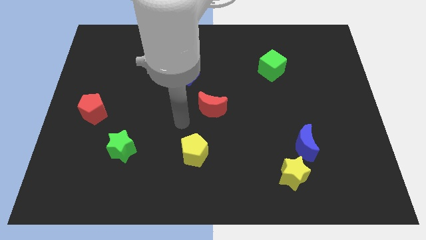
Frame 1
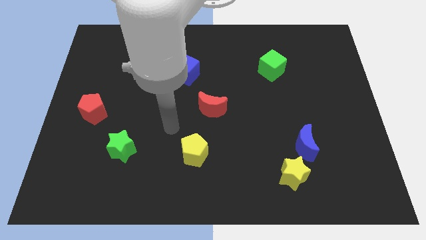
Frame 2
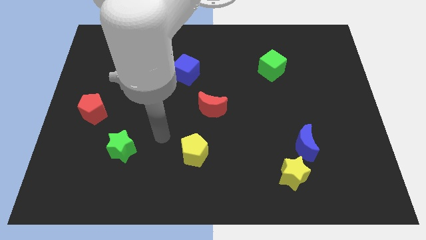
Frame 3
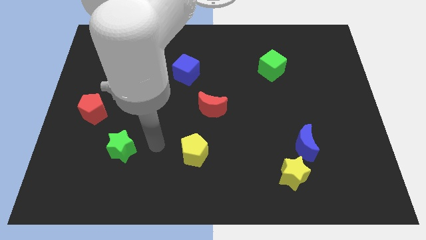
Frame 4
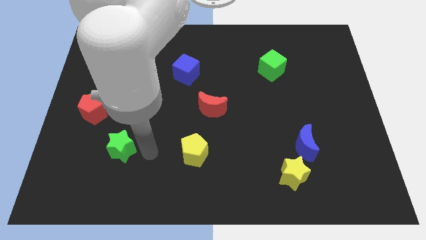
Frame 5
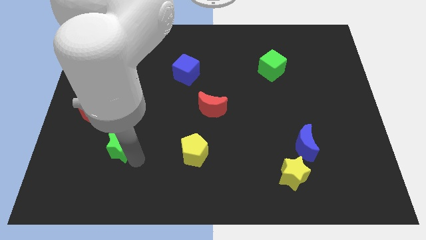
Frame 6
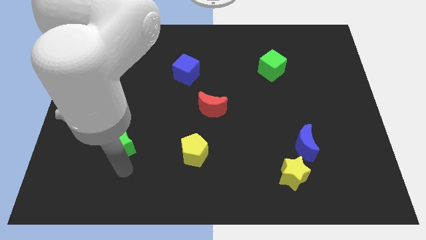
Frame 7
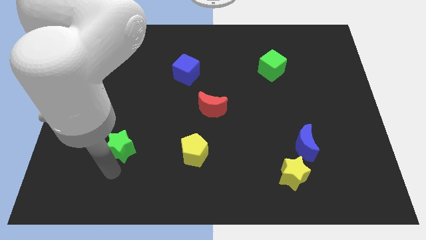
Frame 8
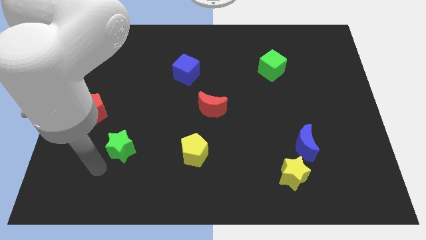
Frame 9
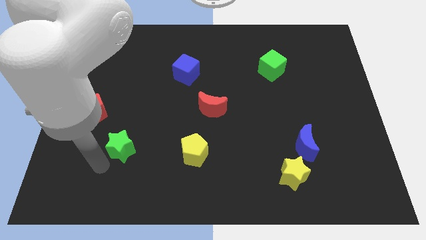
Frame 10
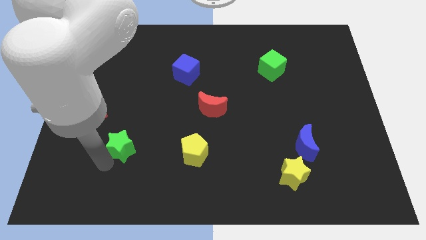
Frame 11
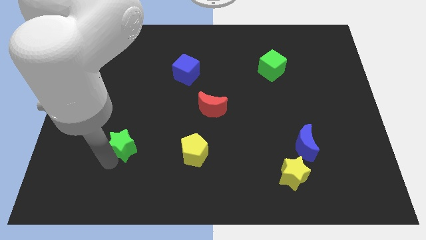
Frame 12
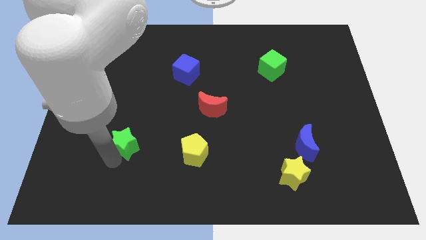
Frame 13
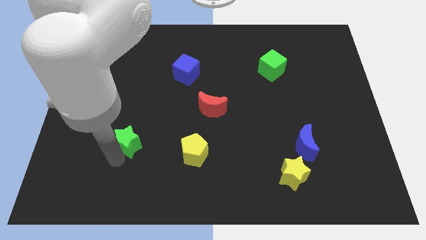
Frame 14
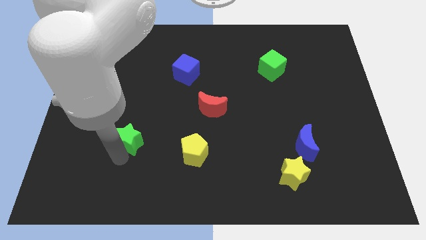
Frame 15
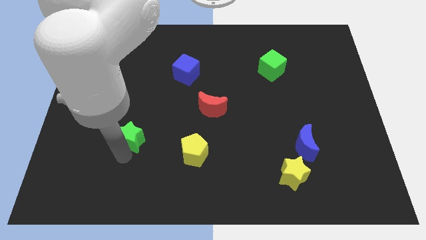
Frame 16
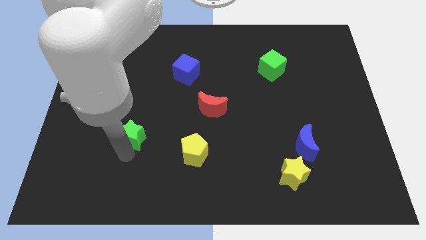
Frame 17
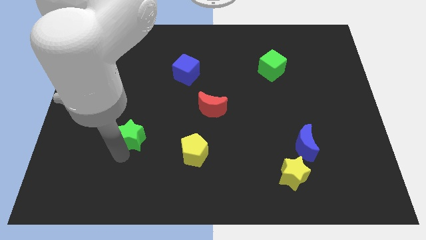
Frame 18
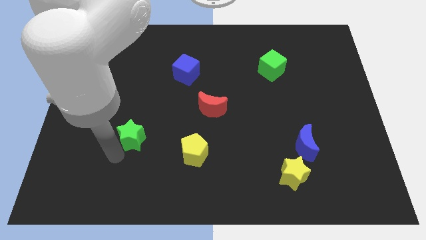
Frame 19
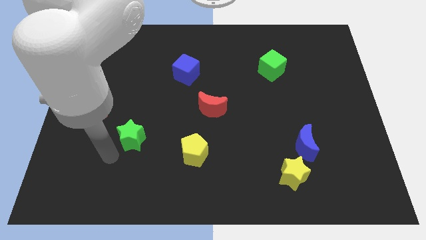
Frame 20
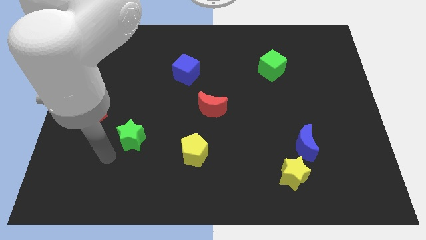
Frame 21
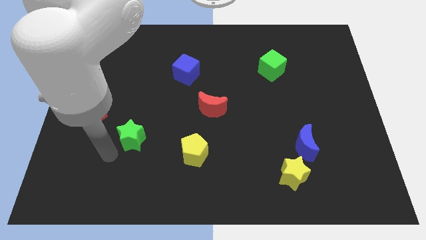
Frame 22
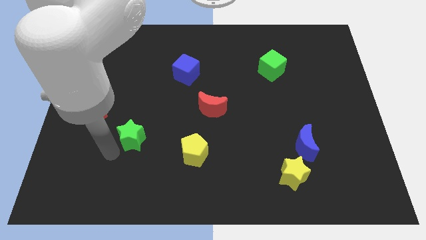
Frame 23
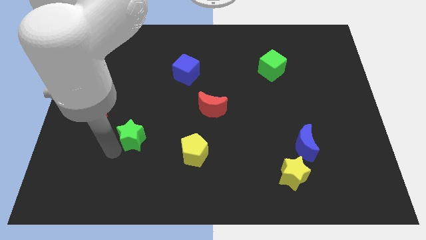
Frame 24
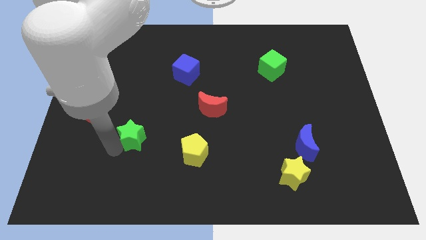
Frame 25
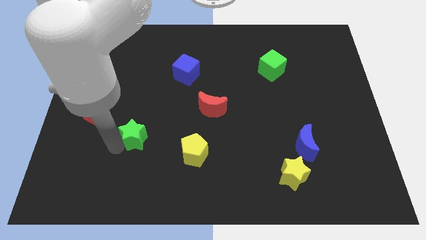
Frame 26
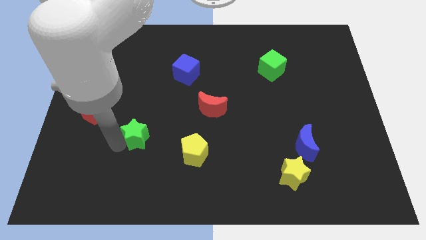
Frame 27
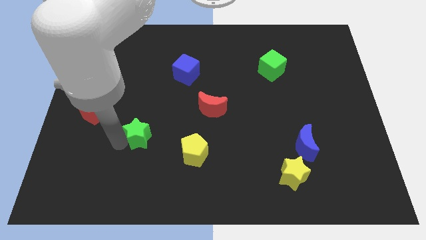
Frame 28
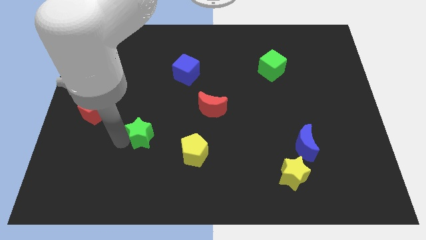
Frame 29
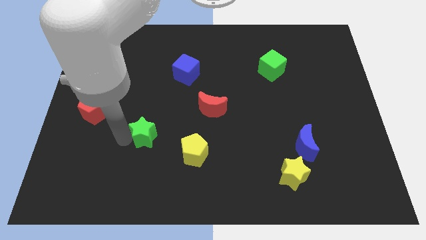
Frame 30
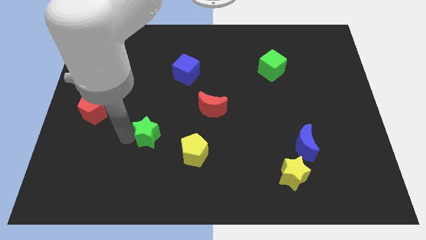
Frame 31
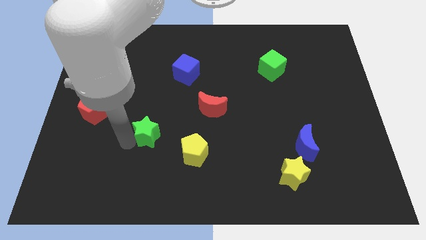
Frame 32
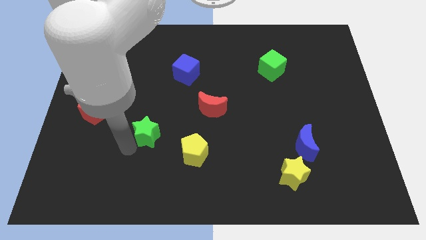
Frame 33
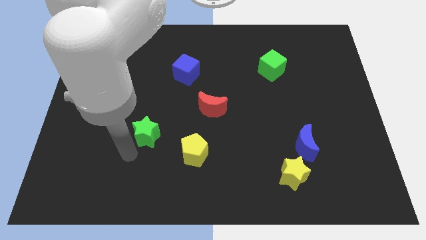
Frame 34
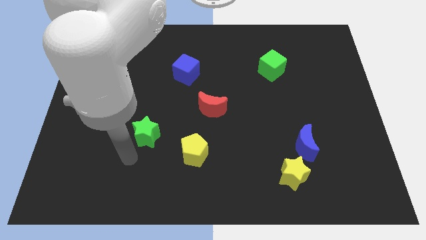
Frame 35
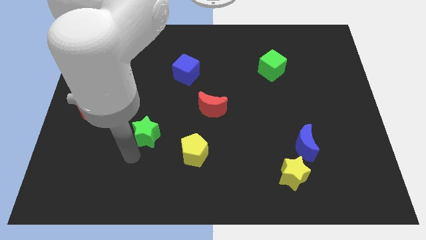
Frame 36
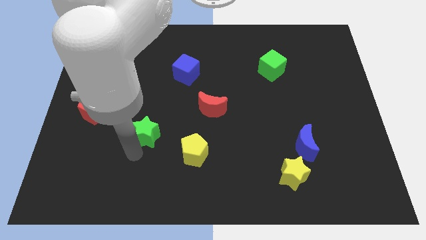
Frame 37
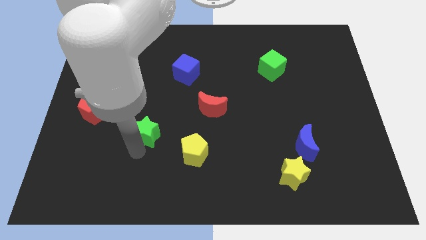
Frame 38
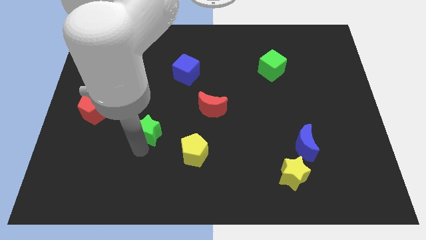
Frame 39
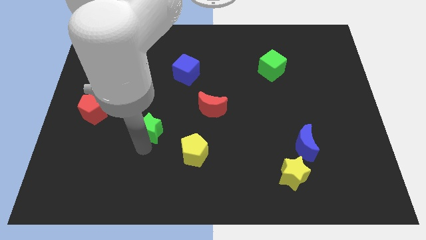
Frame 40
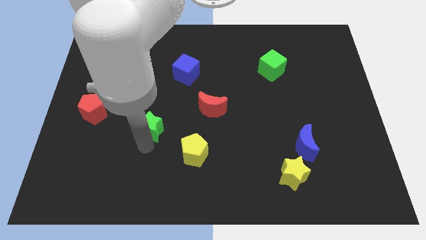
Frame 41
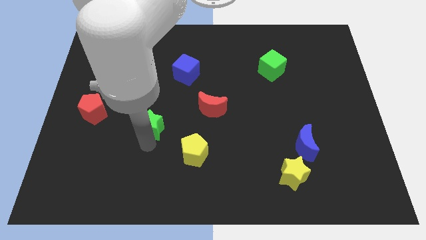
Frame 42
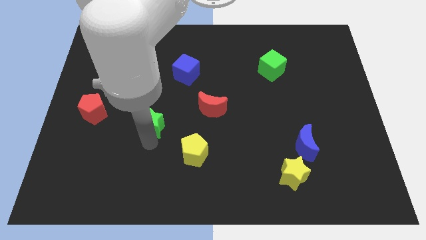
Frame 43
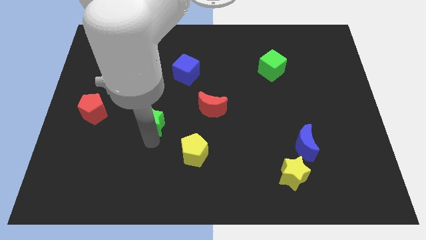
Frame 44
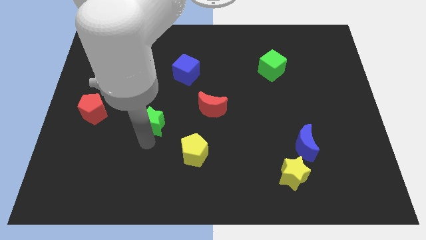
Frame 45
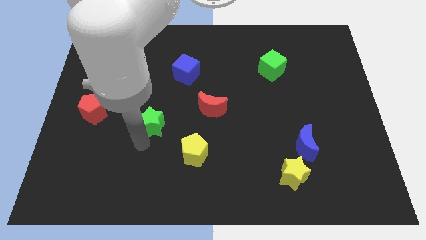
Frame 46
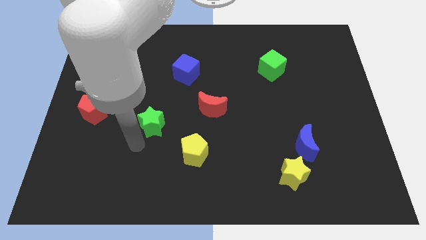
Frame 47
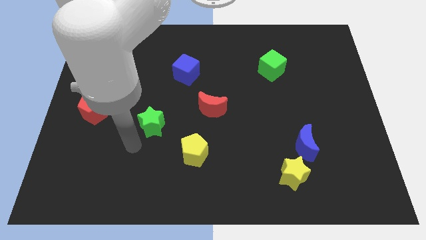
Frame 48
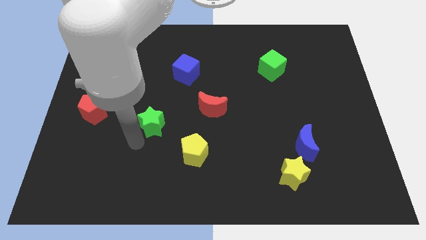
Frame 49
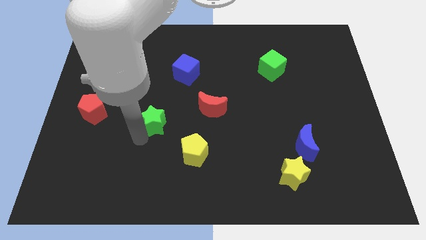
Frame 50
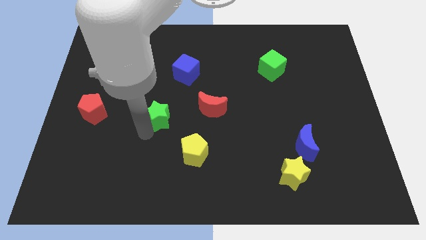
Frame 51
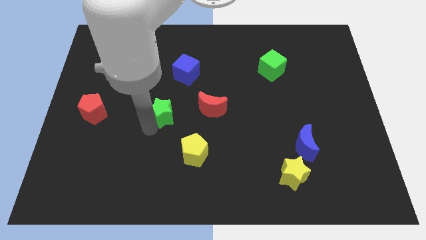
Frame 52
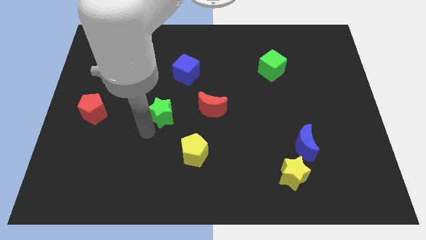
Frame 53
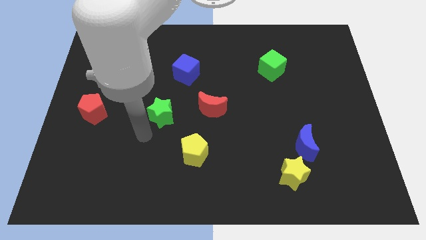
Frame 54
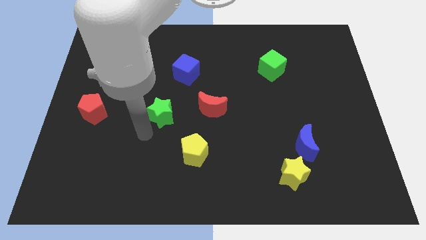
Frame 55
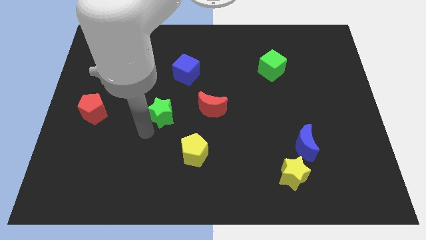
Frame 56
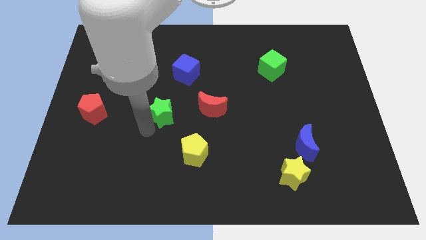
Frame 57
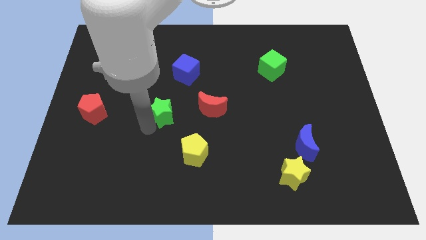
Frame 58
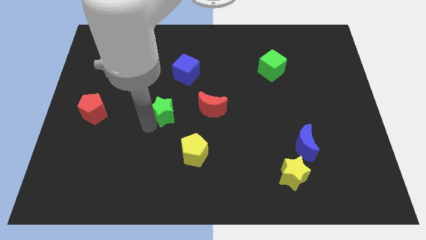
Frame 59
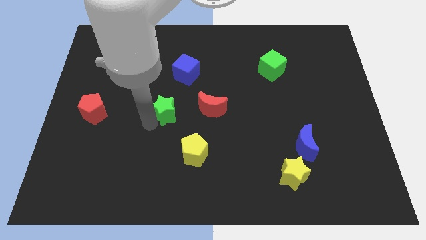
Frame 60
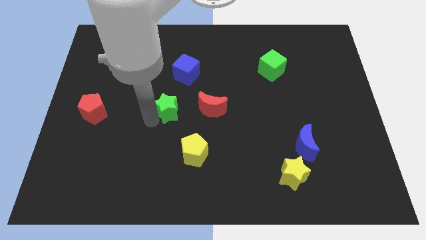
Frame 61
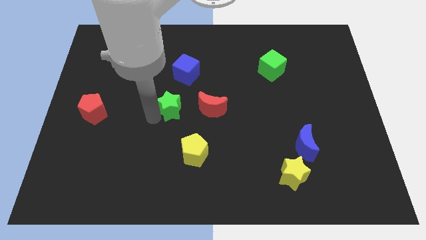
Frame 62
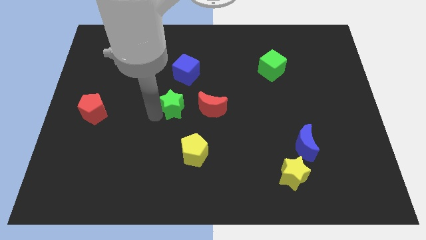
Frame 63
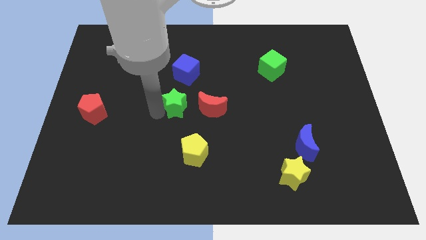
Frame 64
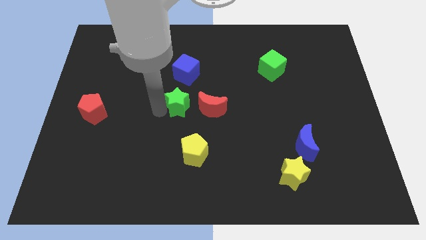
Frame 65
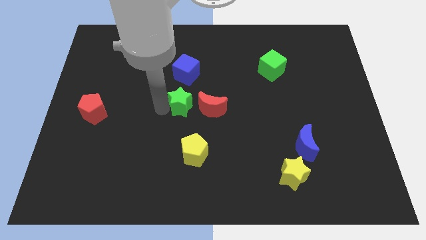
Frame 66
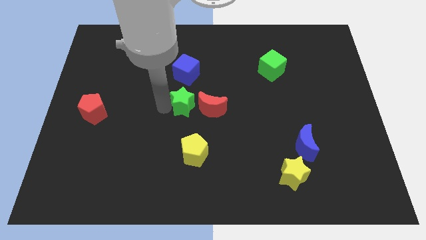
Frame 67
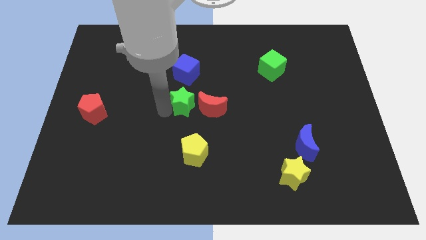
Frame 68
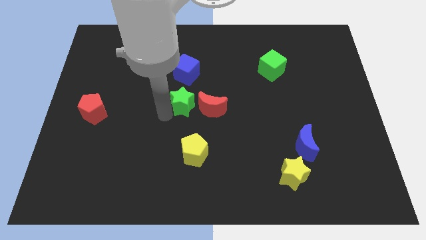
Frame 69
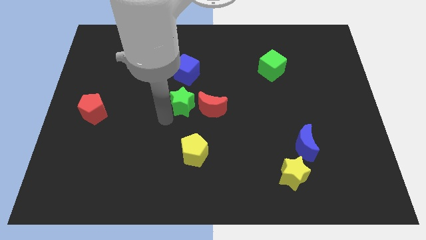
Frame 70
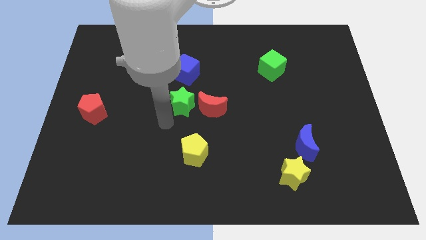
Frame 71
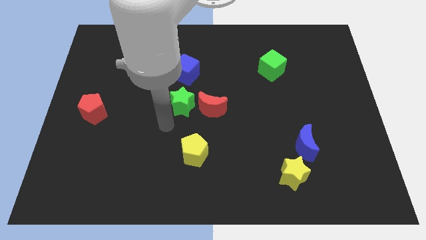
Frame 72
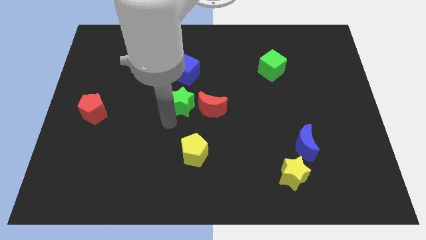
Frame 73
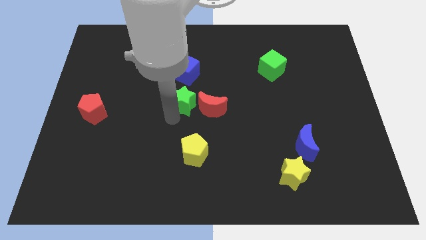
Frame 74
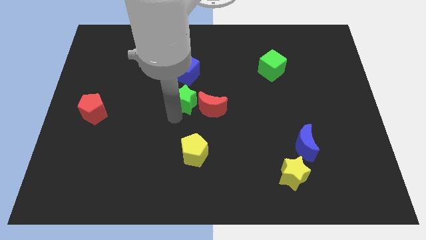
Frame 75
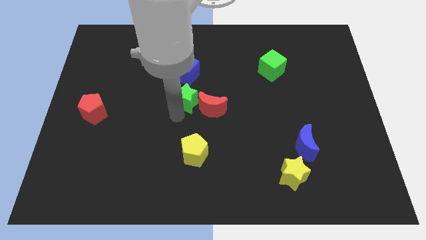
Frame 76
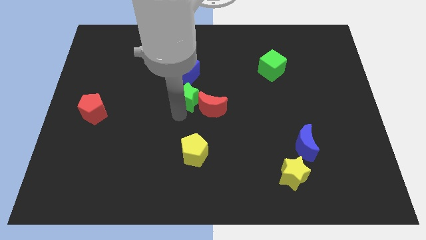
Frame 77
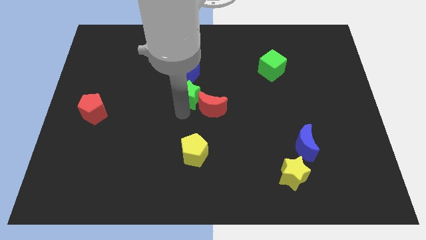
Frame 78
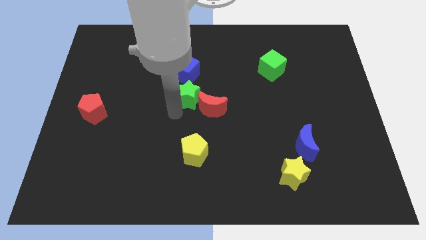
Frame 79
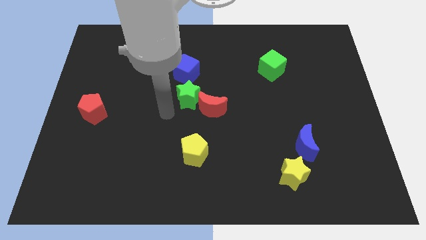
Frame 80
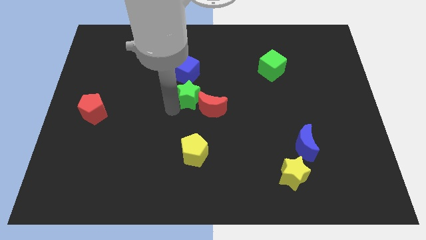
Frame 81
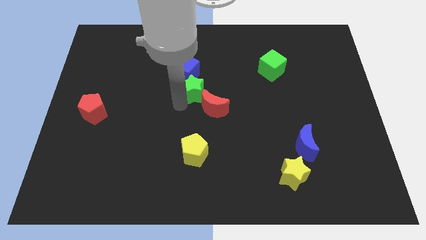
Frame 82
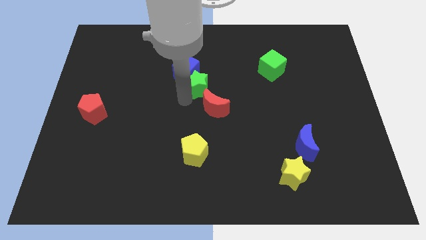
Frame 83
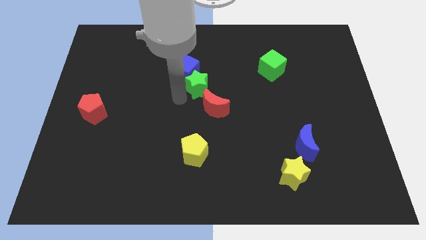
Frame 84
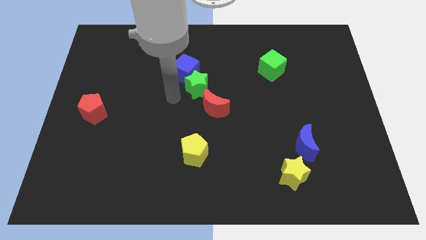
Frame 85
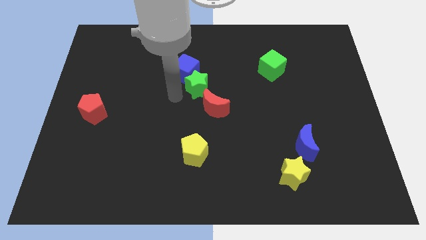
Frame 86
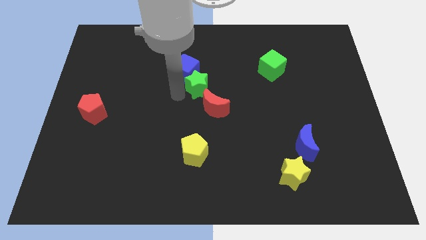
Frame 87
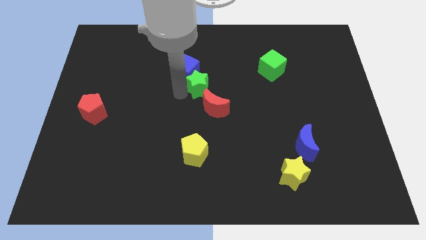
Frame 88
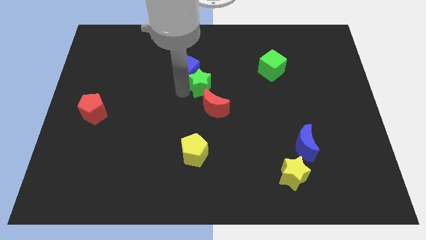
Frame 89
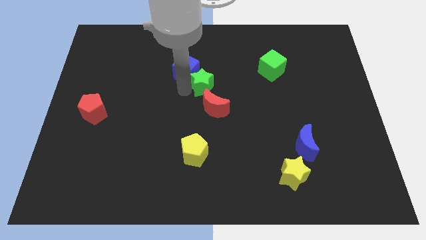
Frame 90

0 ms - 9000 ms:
slide the green star to the right side of the blue cube
